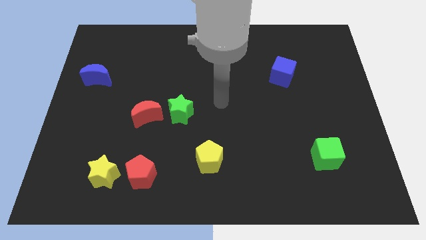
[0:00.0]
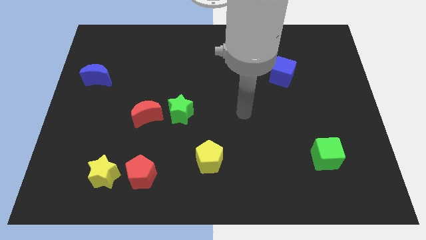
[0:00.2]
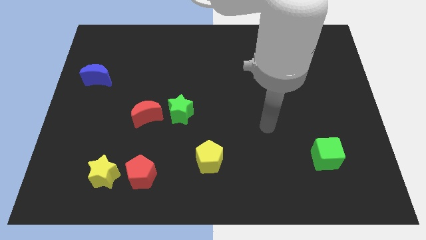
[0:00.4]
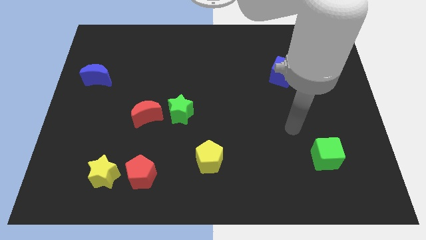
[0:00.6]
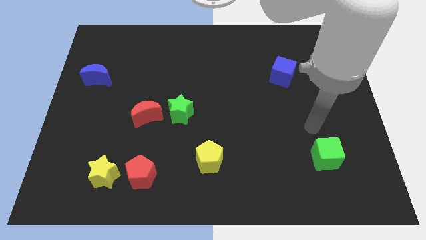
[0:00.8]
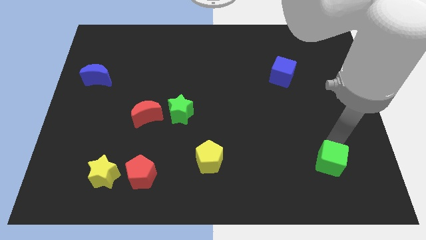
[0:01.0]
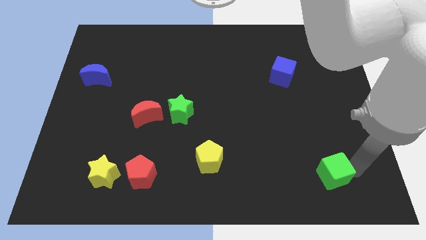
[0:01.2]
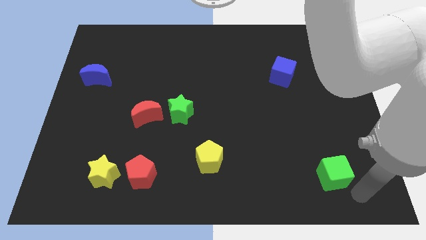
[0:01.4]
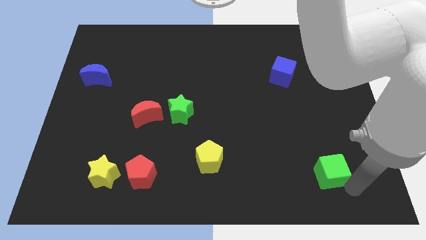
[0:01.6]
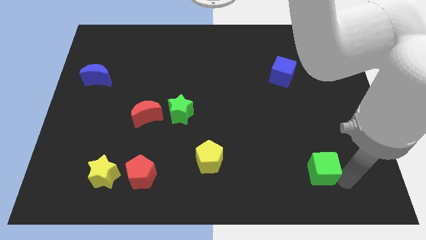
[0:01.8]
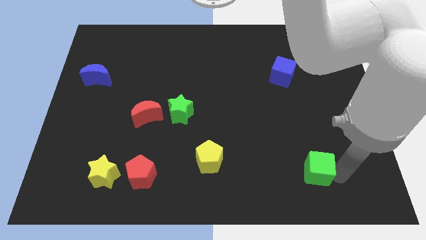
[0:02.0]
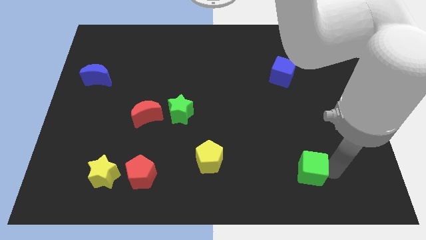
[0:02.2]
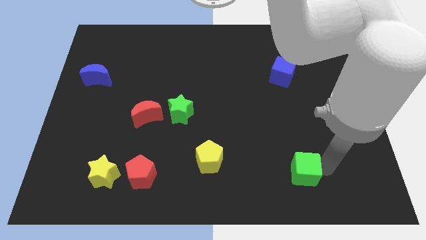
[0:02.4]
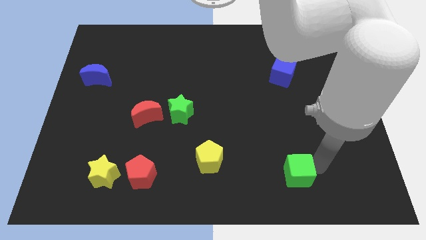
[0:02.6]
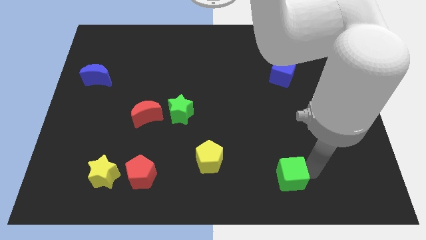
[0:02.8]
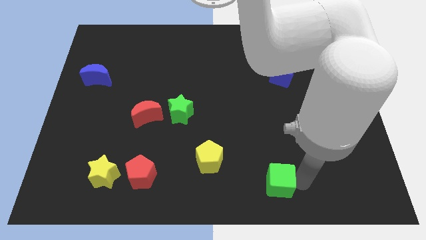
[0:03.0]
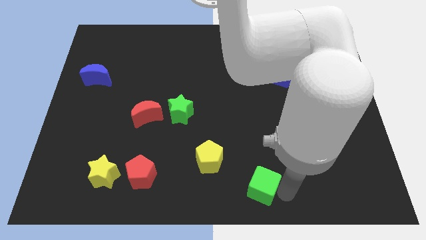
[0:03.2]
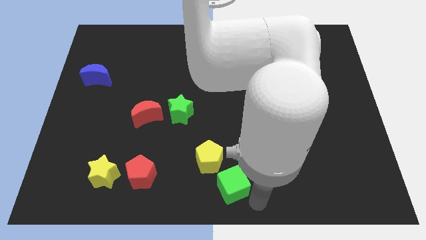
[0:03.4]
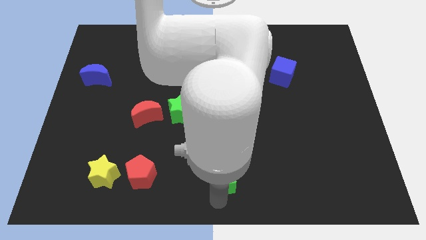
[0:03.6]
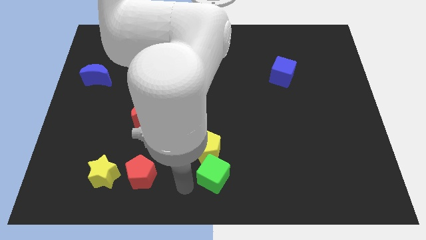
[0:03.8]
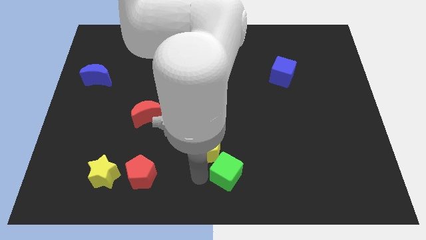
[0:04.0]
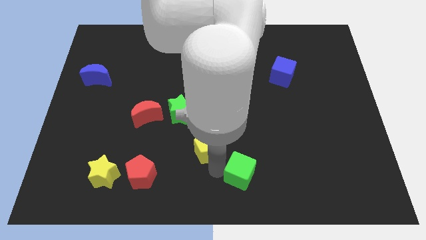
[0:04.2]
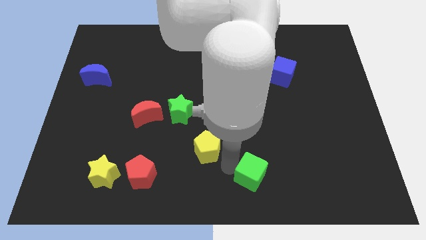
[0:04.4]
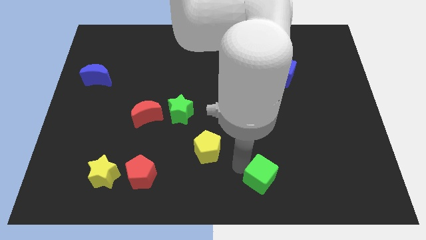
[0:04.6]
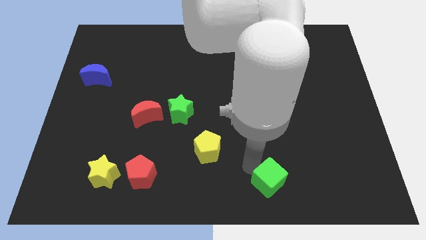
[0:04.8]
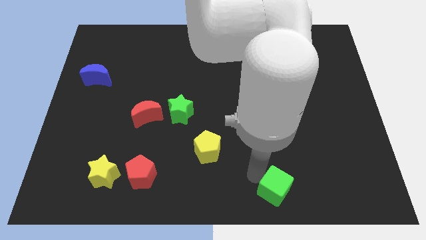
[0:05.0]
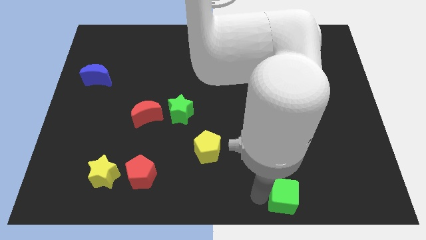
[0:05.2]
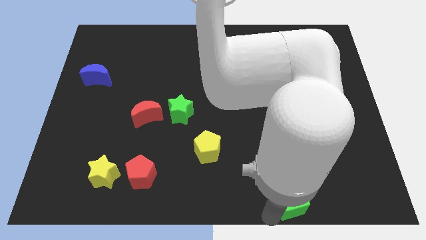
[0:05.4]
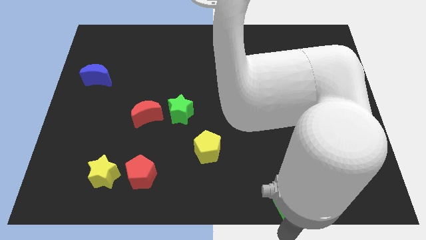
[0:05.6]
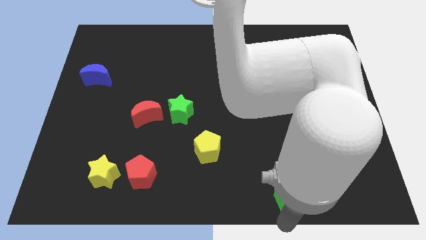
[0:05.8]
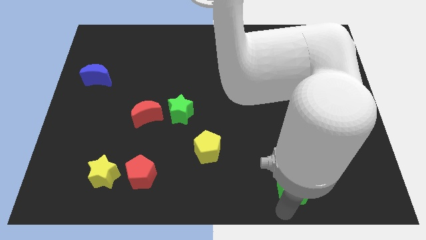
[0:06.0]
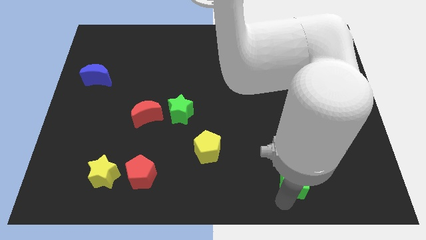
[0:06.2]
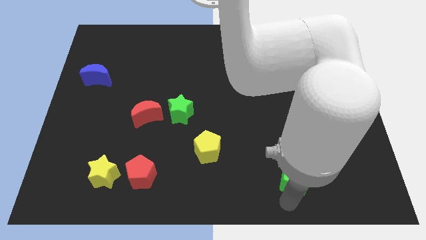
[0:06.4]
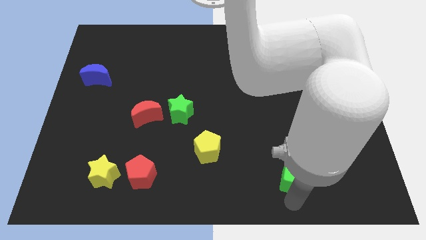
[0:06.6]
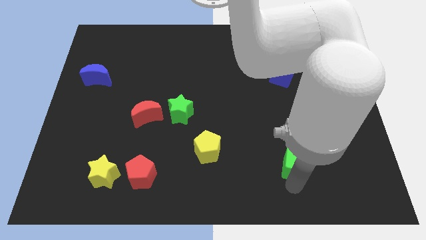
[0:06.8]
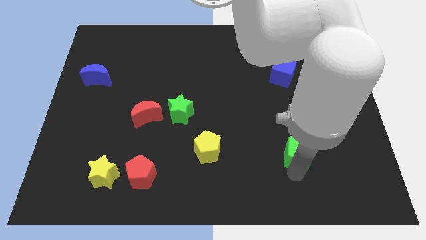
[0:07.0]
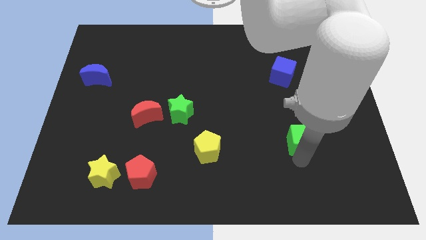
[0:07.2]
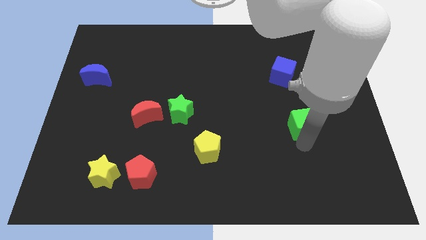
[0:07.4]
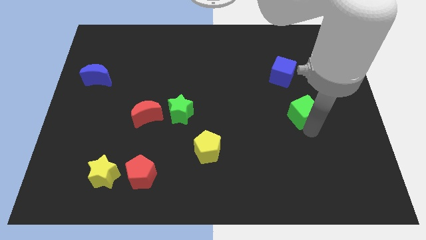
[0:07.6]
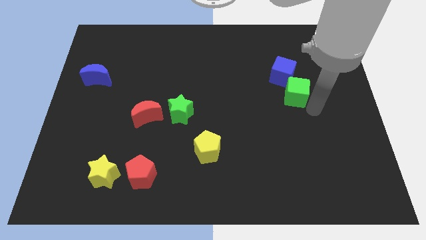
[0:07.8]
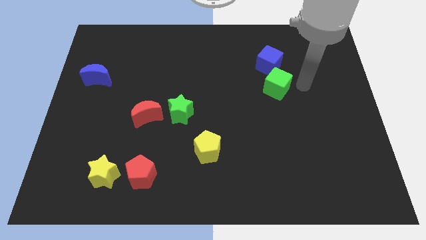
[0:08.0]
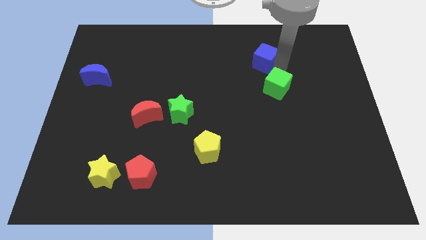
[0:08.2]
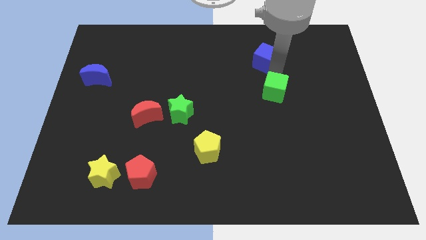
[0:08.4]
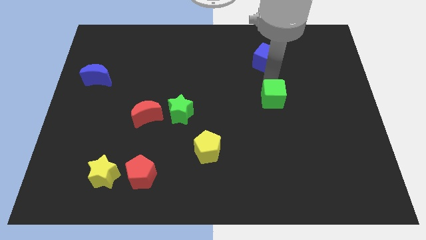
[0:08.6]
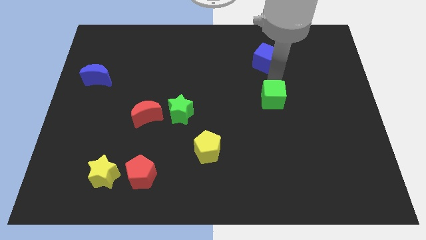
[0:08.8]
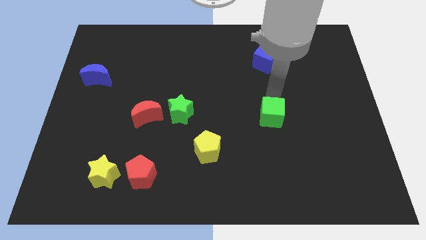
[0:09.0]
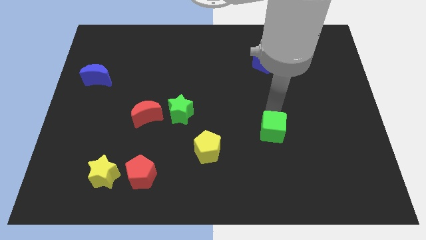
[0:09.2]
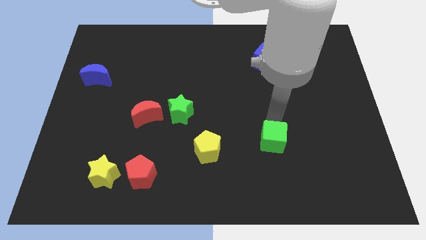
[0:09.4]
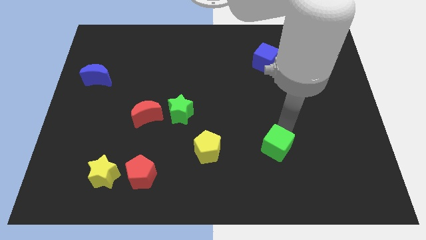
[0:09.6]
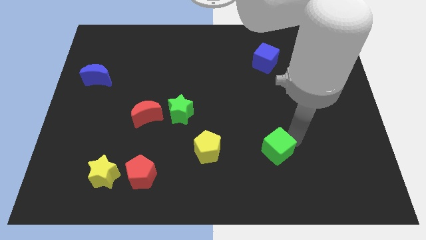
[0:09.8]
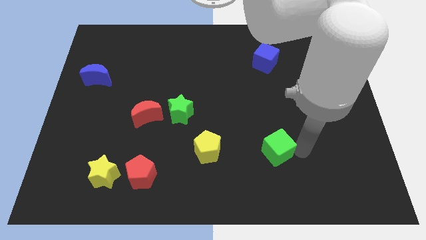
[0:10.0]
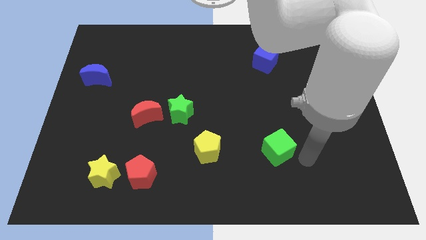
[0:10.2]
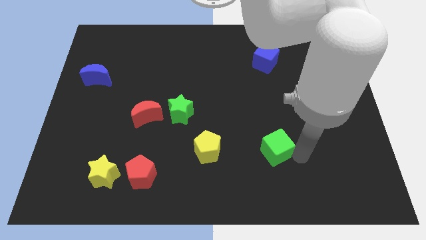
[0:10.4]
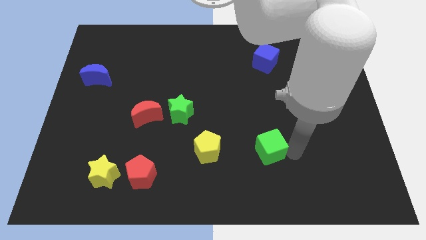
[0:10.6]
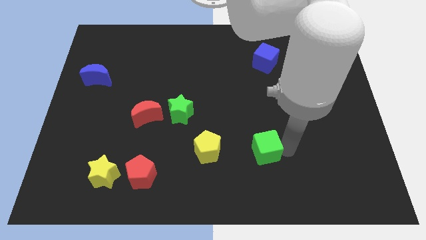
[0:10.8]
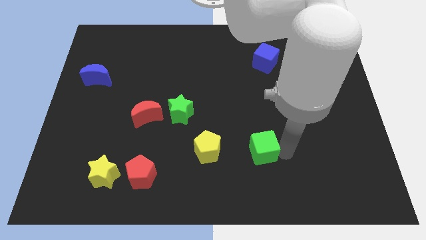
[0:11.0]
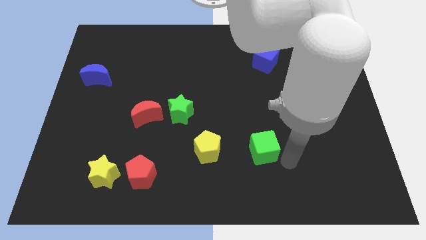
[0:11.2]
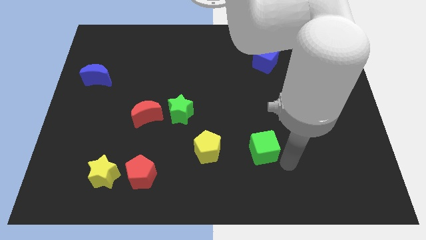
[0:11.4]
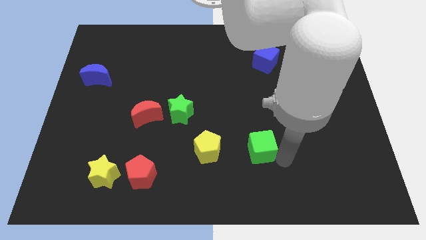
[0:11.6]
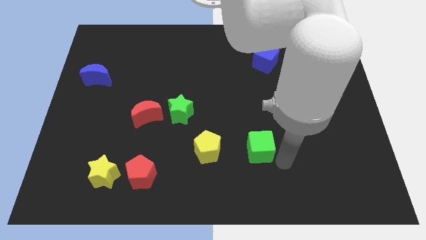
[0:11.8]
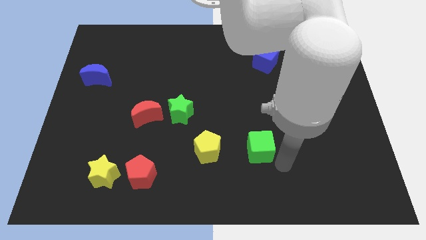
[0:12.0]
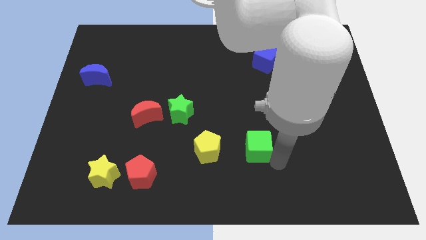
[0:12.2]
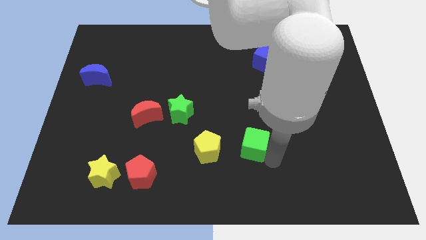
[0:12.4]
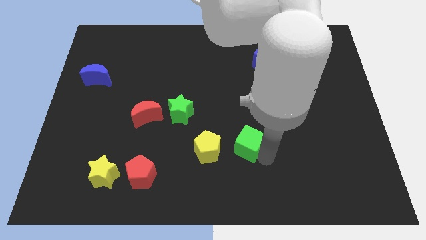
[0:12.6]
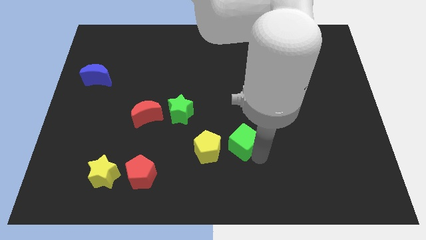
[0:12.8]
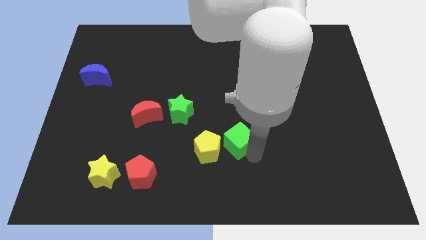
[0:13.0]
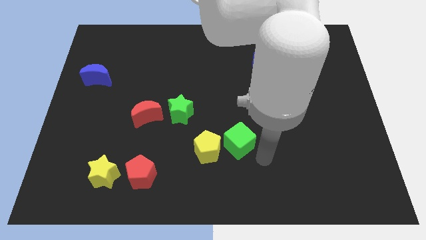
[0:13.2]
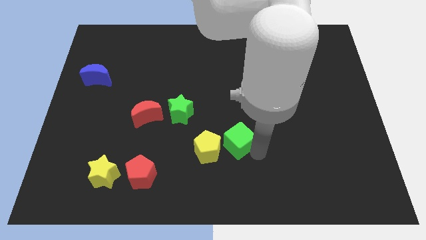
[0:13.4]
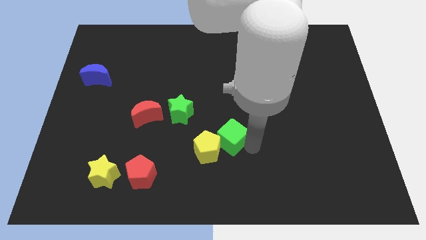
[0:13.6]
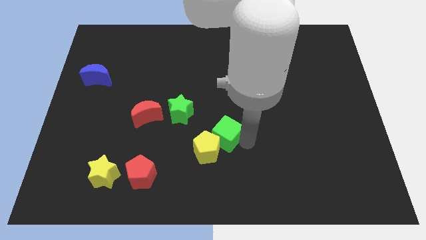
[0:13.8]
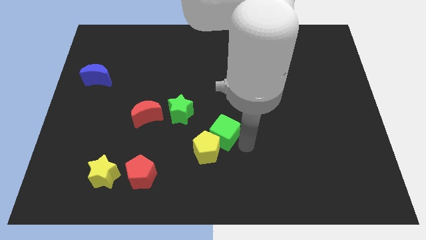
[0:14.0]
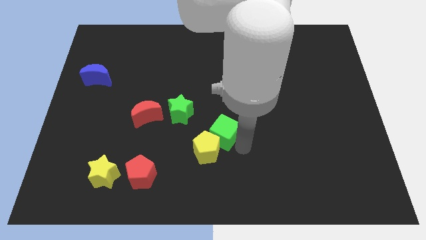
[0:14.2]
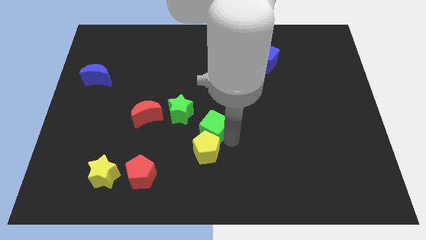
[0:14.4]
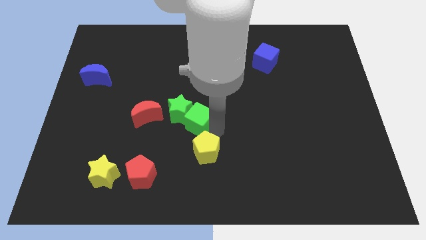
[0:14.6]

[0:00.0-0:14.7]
slide the green cube close to the green star
